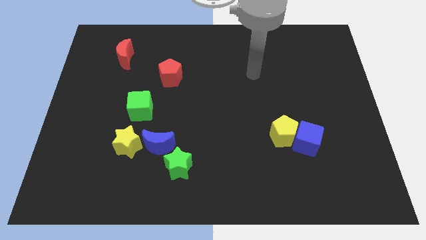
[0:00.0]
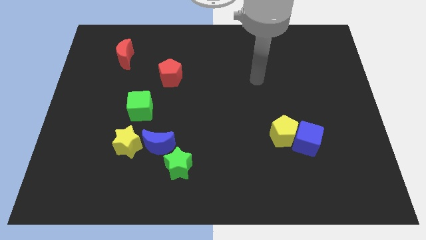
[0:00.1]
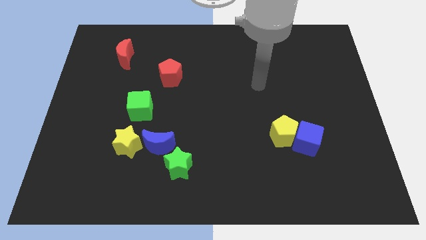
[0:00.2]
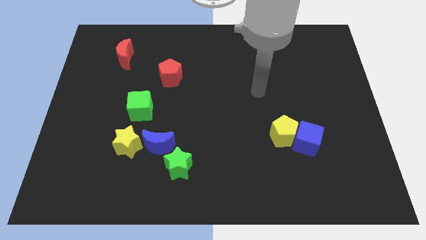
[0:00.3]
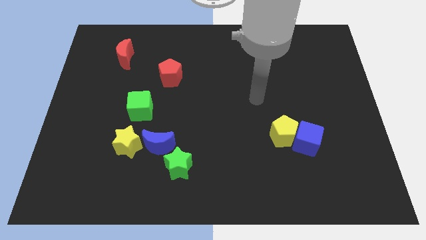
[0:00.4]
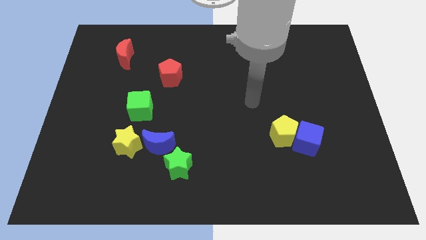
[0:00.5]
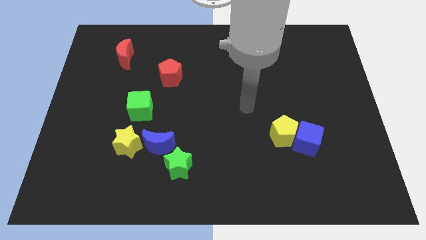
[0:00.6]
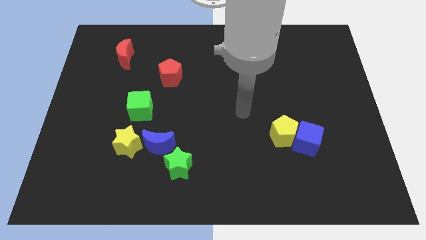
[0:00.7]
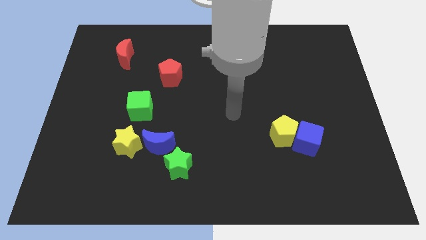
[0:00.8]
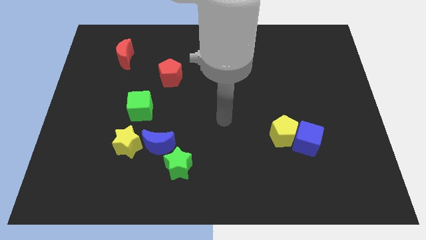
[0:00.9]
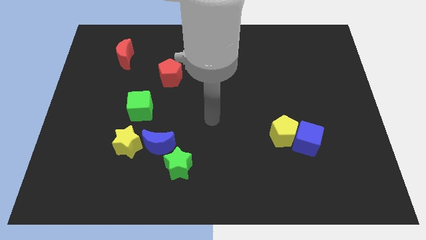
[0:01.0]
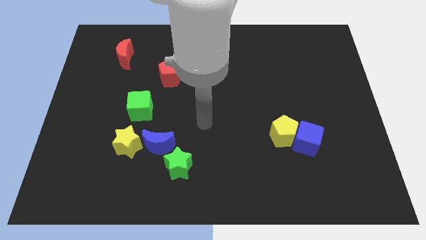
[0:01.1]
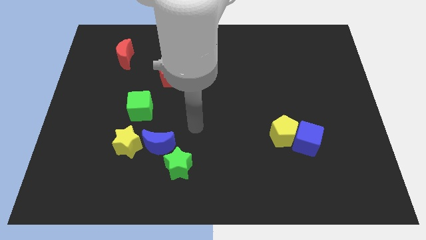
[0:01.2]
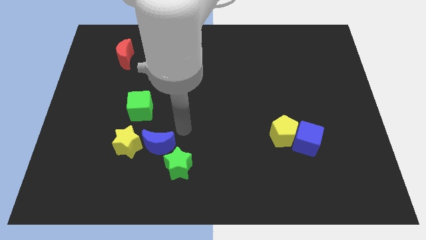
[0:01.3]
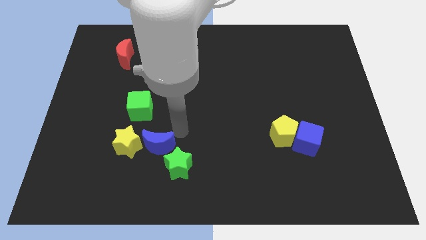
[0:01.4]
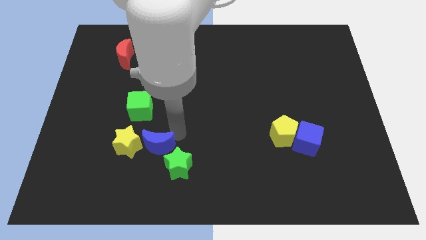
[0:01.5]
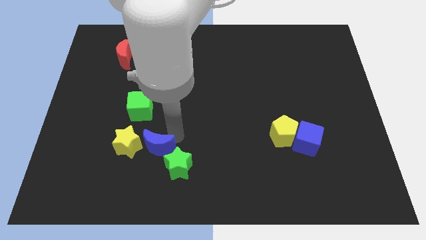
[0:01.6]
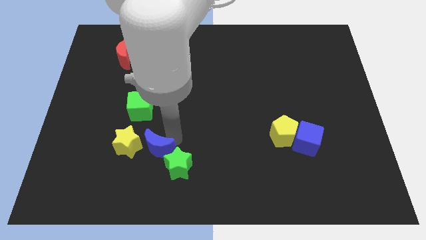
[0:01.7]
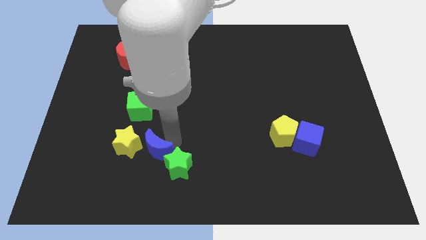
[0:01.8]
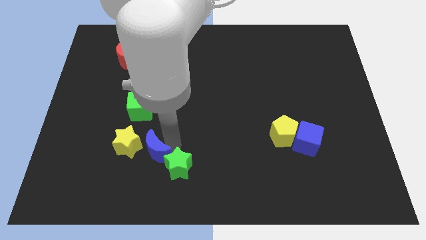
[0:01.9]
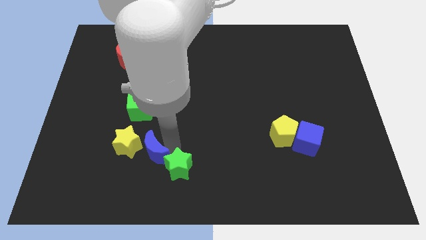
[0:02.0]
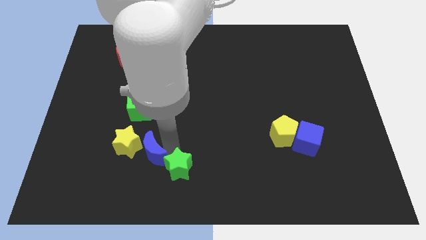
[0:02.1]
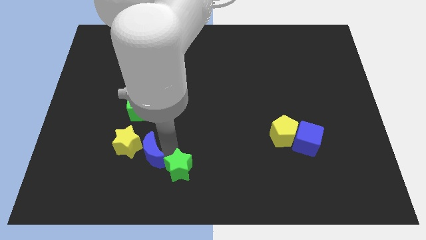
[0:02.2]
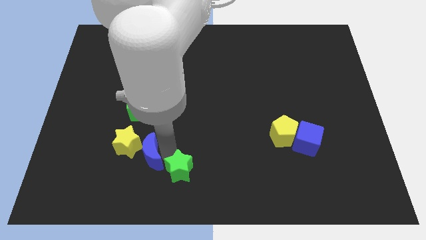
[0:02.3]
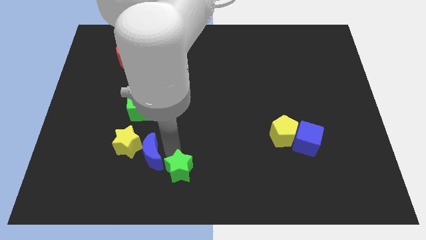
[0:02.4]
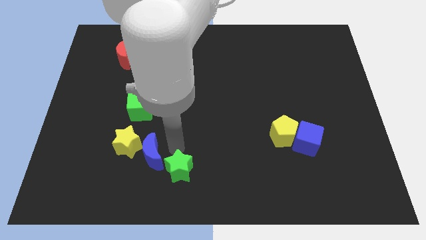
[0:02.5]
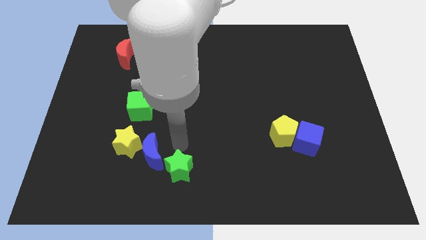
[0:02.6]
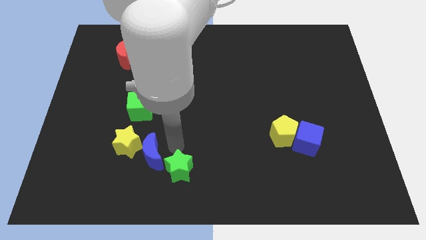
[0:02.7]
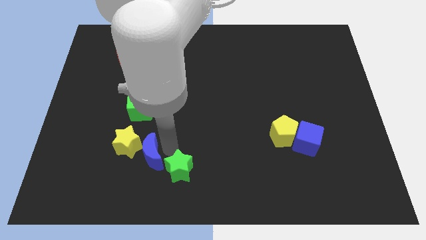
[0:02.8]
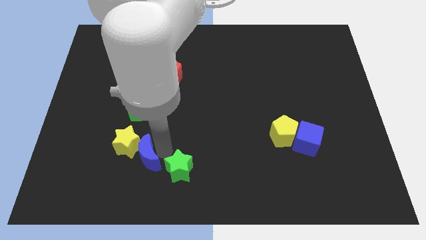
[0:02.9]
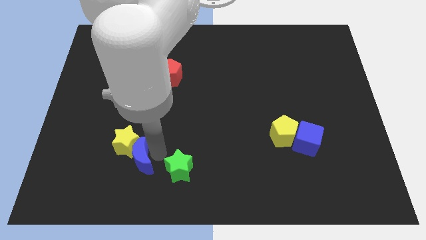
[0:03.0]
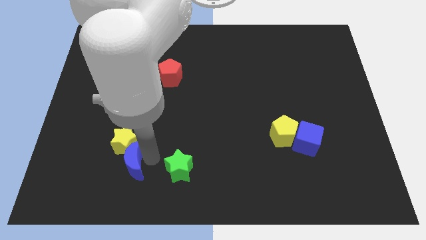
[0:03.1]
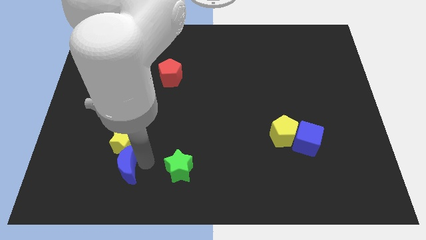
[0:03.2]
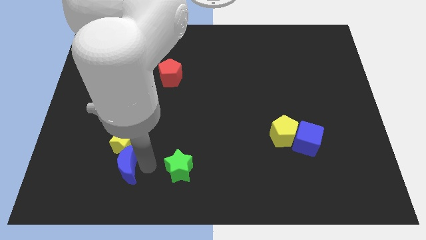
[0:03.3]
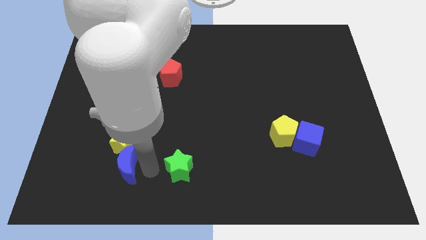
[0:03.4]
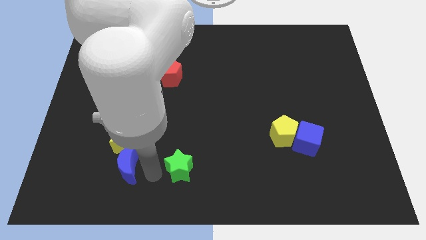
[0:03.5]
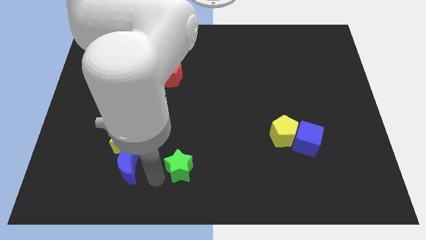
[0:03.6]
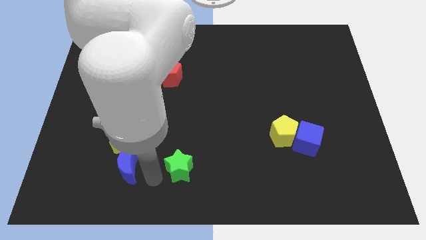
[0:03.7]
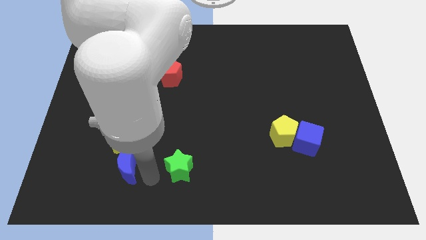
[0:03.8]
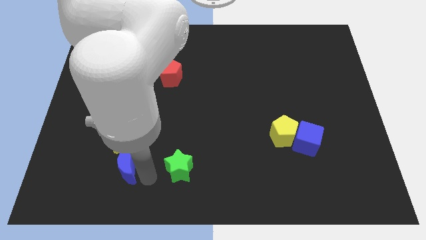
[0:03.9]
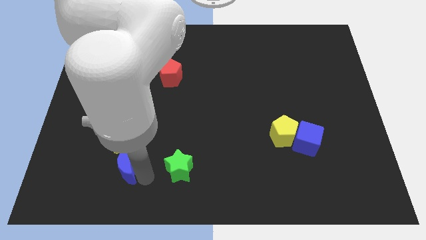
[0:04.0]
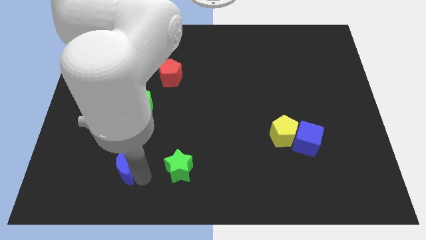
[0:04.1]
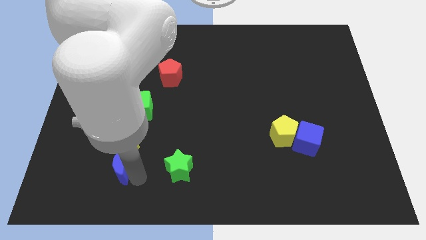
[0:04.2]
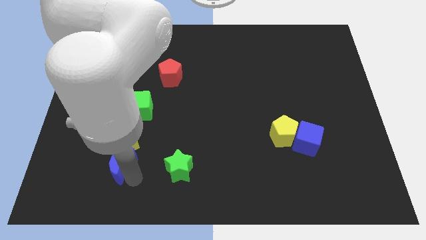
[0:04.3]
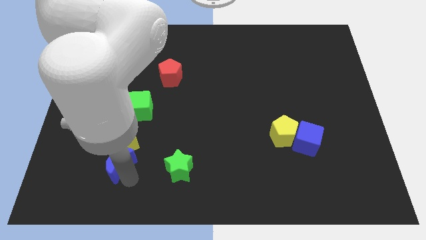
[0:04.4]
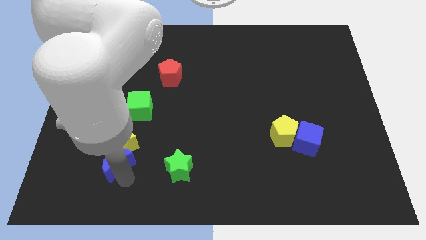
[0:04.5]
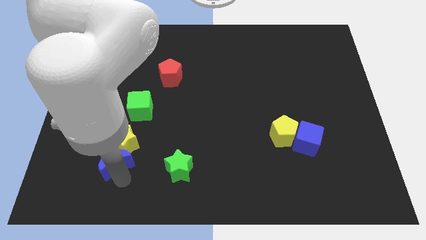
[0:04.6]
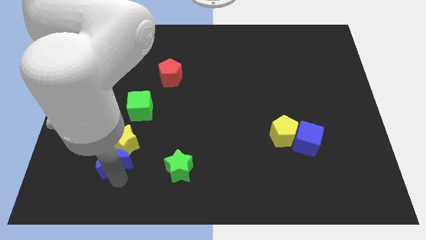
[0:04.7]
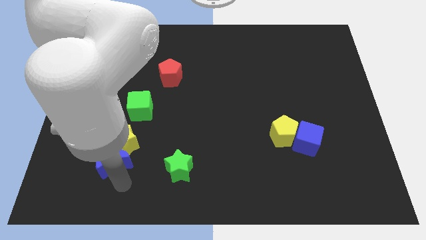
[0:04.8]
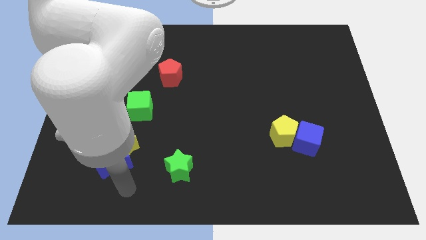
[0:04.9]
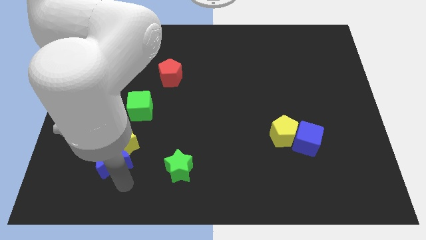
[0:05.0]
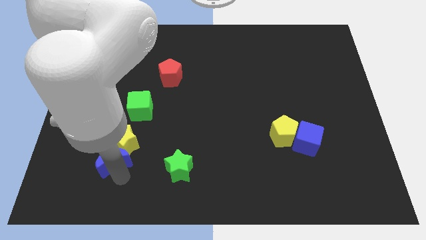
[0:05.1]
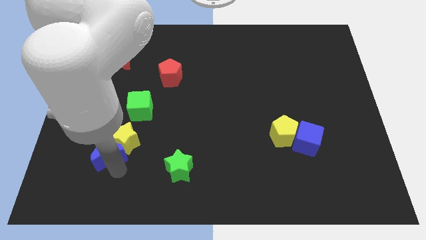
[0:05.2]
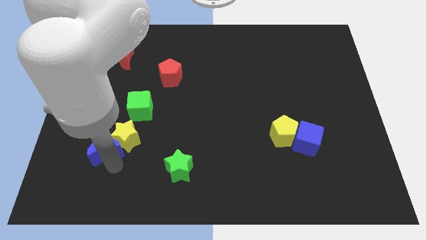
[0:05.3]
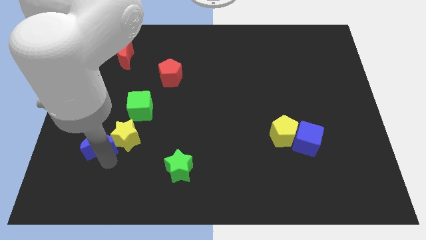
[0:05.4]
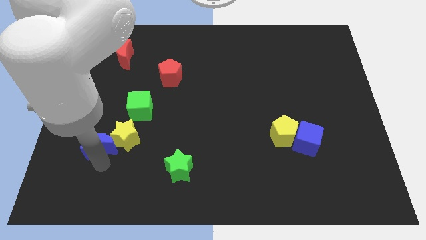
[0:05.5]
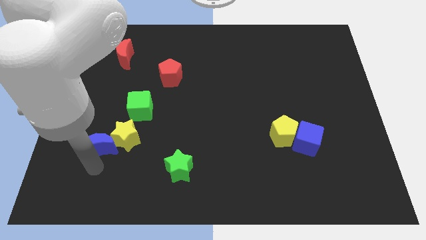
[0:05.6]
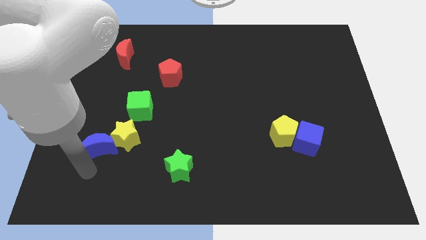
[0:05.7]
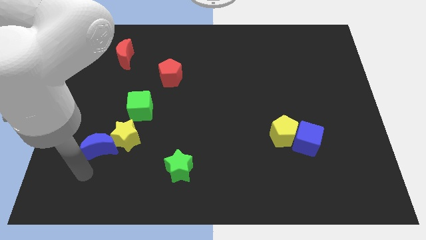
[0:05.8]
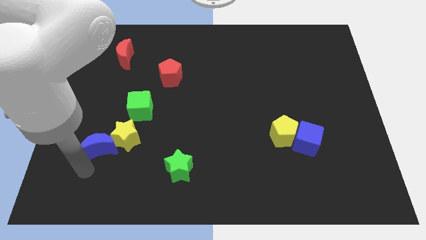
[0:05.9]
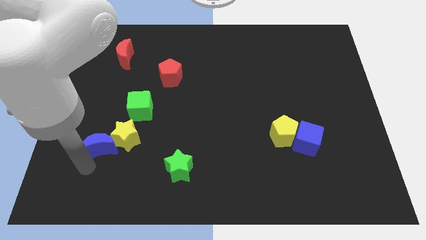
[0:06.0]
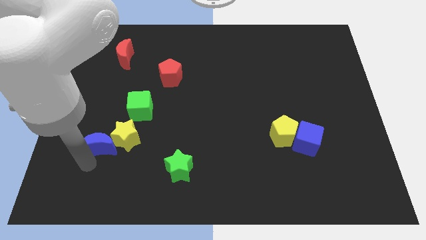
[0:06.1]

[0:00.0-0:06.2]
slide the blue moon to the bottom left of the green cube

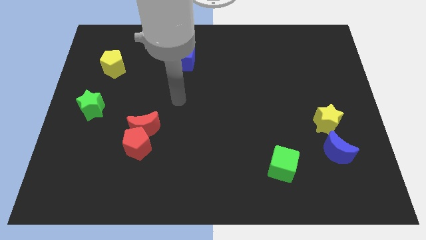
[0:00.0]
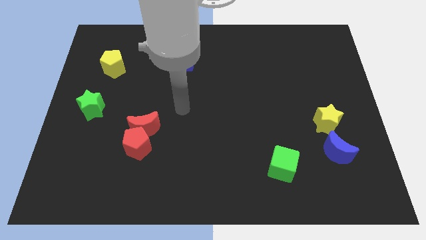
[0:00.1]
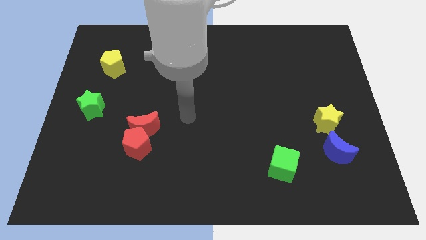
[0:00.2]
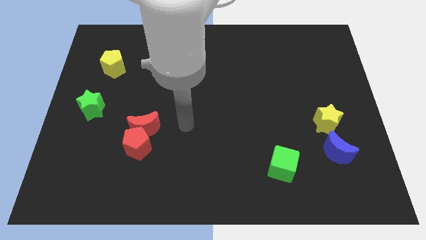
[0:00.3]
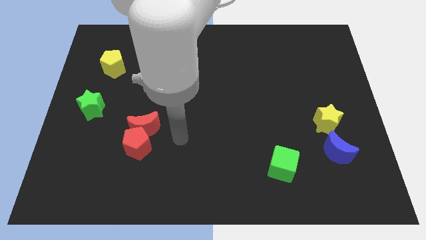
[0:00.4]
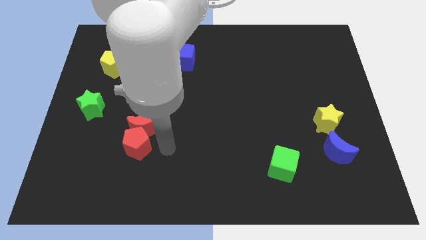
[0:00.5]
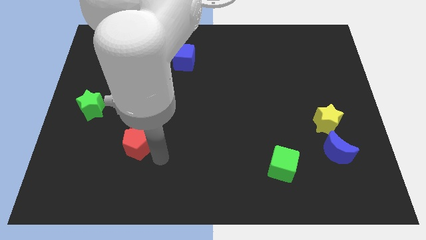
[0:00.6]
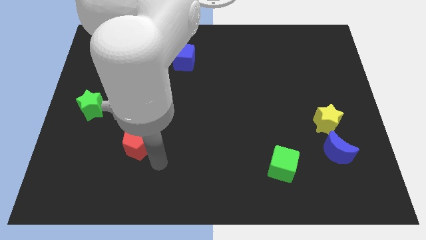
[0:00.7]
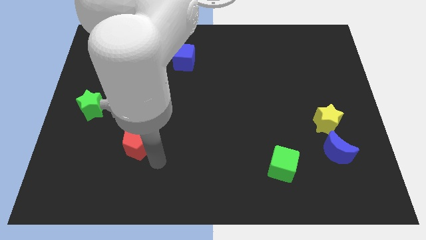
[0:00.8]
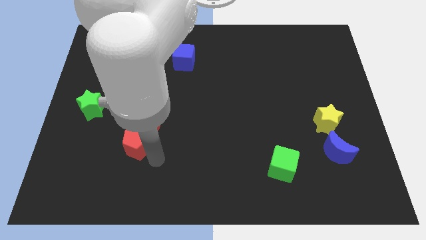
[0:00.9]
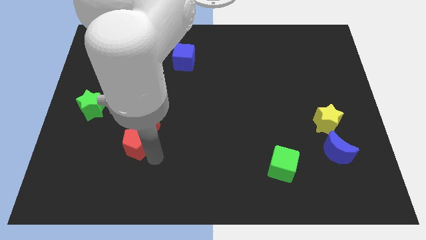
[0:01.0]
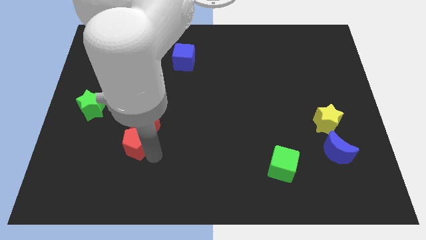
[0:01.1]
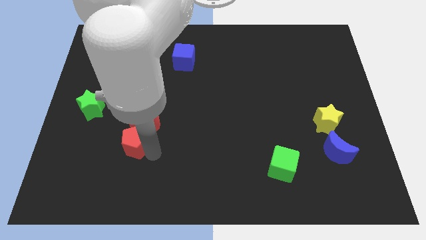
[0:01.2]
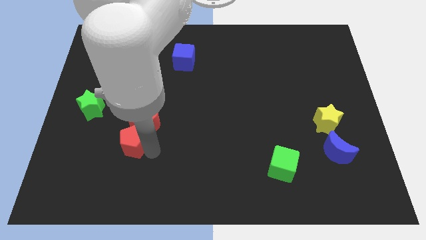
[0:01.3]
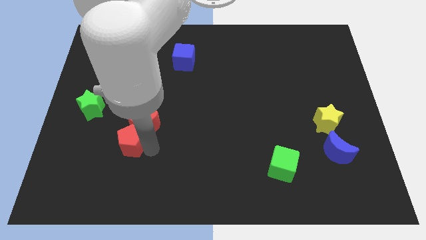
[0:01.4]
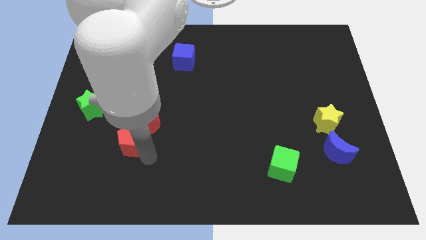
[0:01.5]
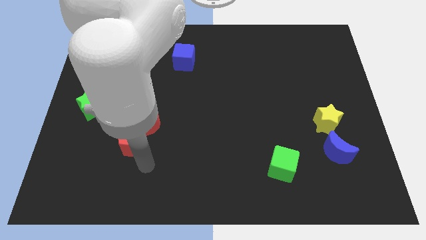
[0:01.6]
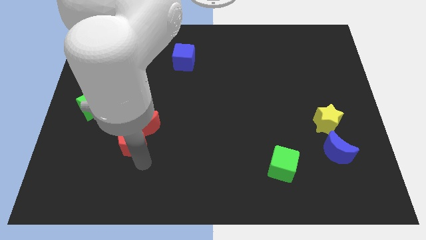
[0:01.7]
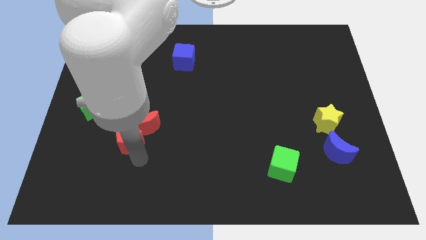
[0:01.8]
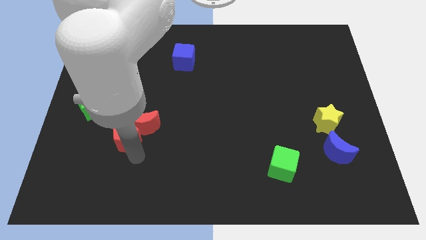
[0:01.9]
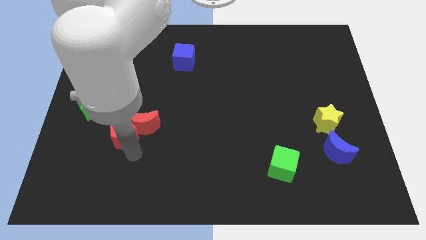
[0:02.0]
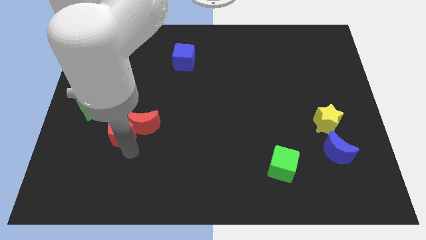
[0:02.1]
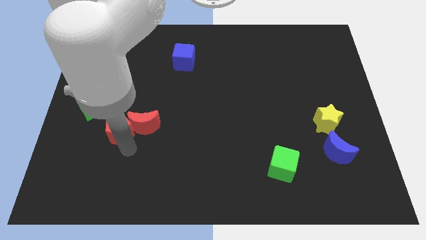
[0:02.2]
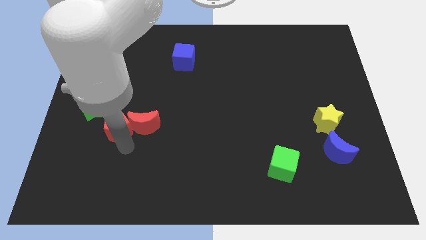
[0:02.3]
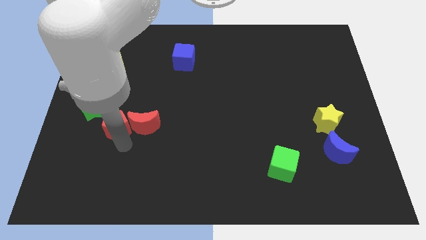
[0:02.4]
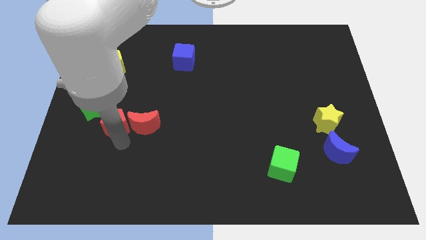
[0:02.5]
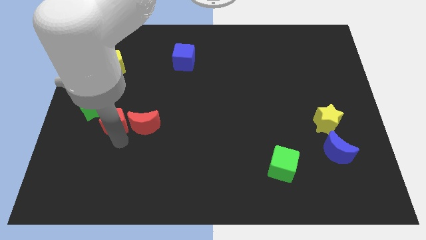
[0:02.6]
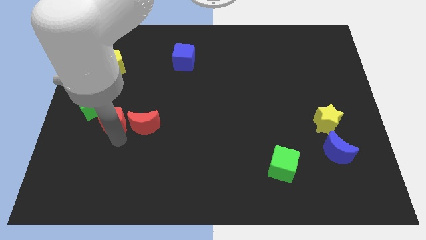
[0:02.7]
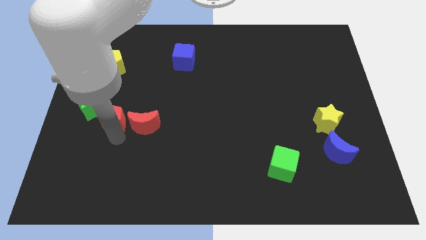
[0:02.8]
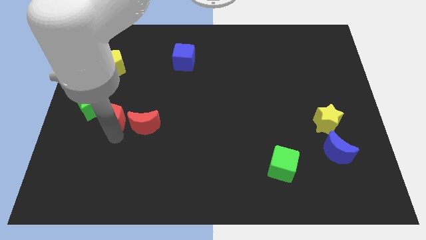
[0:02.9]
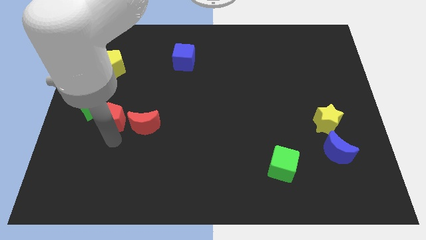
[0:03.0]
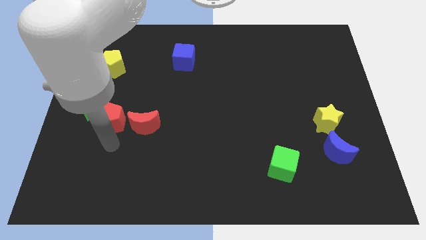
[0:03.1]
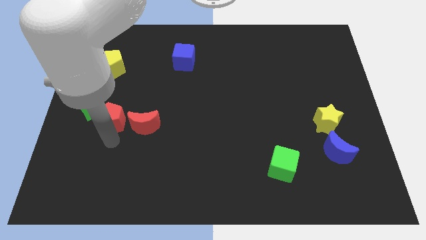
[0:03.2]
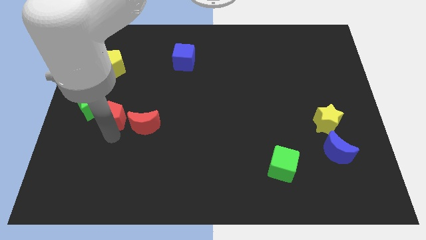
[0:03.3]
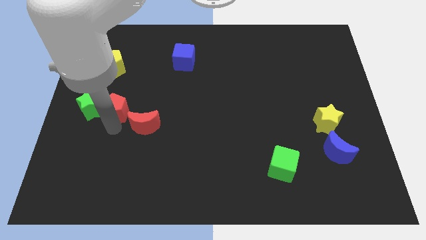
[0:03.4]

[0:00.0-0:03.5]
put the red pentagon diagonally up and to the right of the green star
